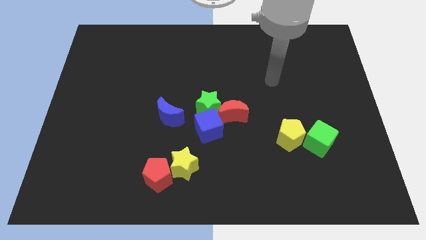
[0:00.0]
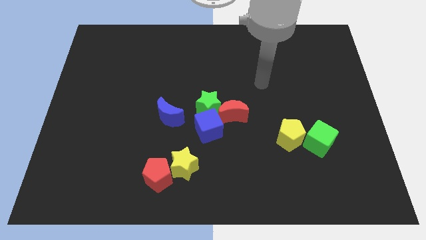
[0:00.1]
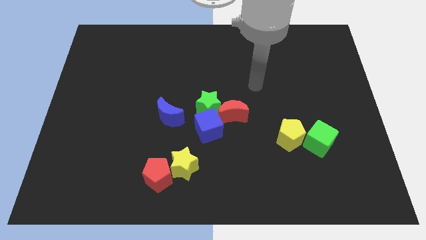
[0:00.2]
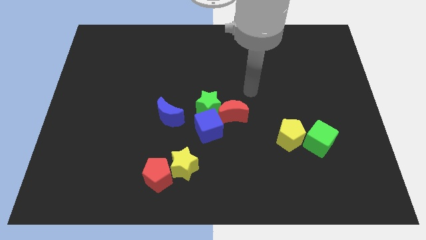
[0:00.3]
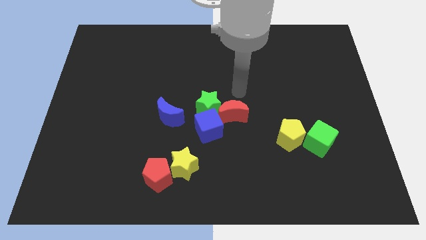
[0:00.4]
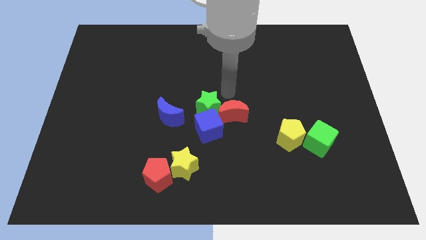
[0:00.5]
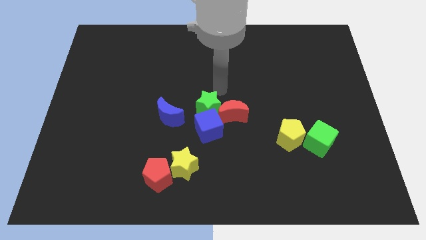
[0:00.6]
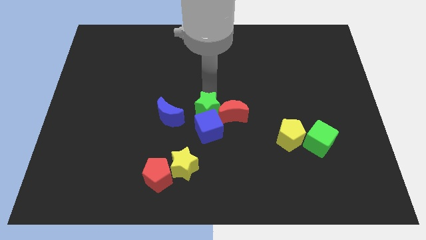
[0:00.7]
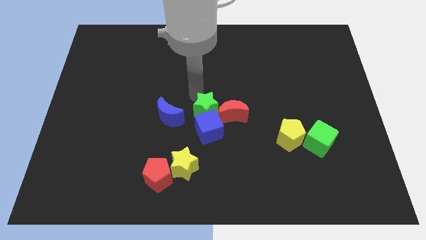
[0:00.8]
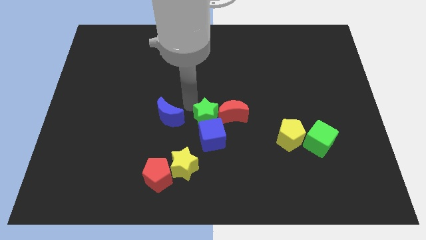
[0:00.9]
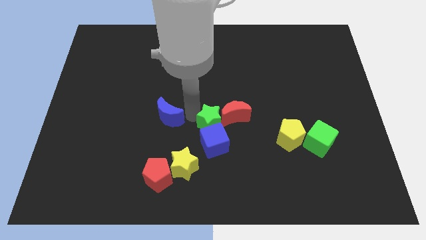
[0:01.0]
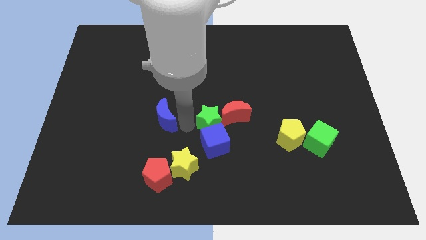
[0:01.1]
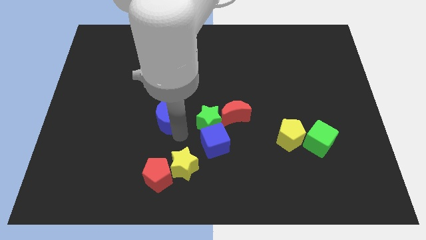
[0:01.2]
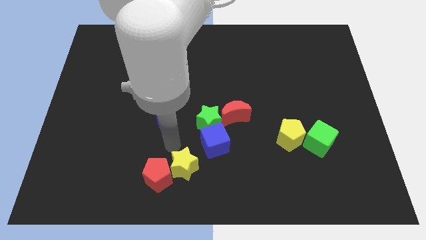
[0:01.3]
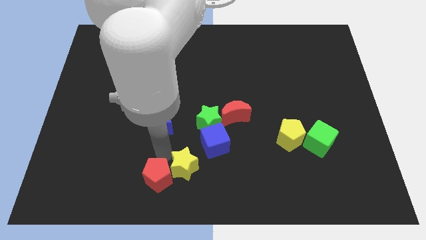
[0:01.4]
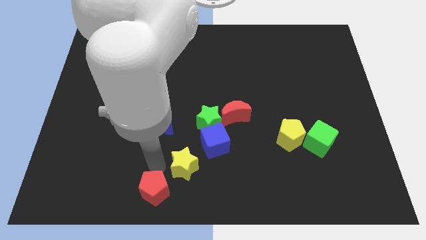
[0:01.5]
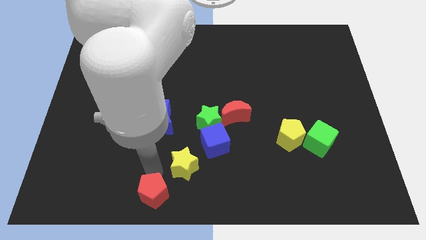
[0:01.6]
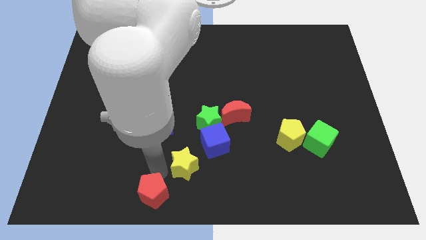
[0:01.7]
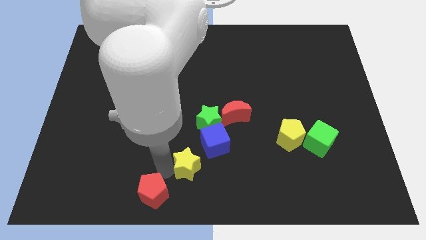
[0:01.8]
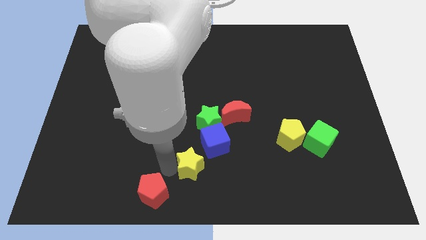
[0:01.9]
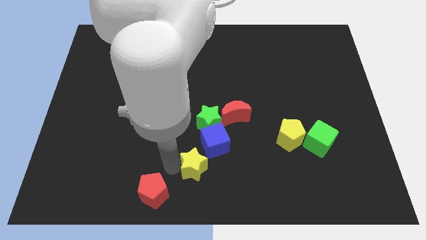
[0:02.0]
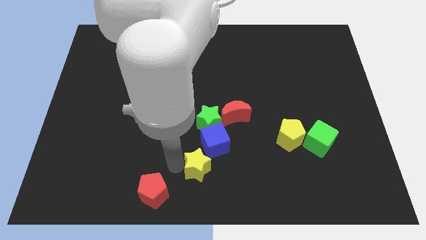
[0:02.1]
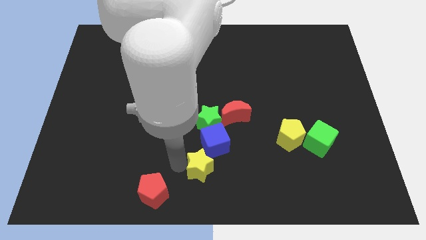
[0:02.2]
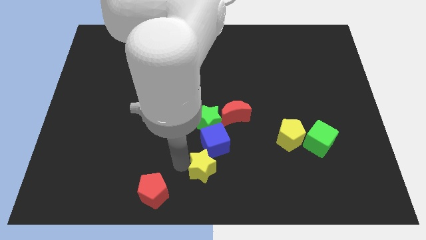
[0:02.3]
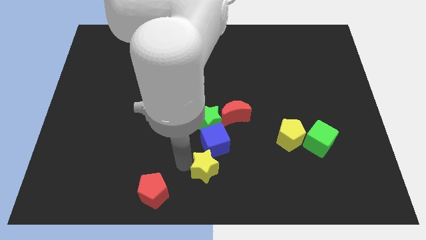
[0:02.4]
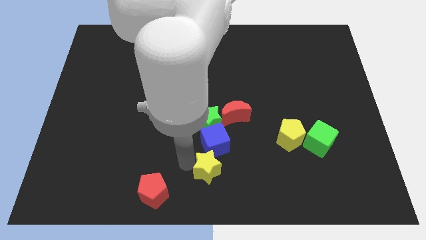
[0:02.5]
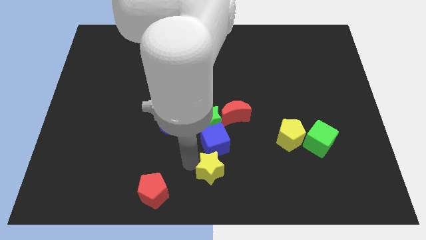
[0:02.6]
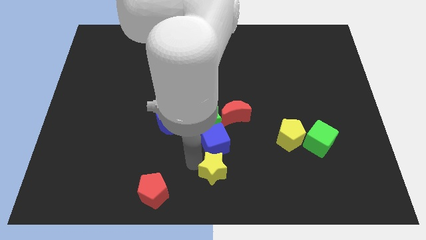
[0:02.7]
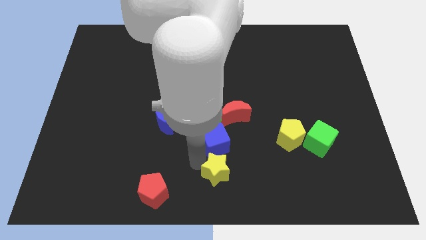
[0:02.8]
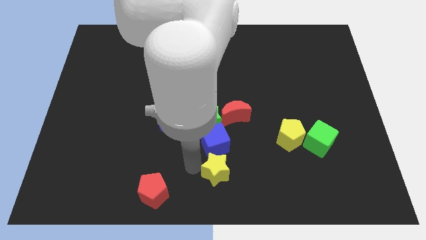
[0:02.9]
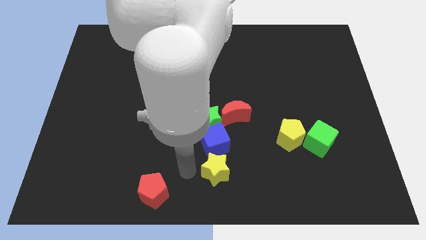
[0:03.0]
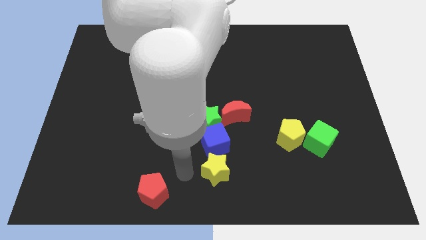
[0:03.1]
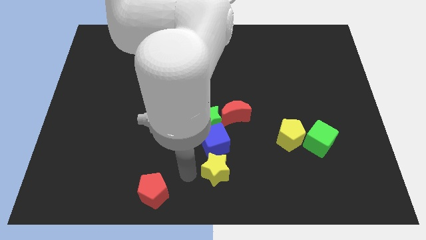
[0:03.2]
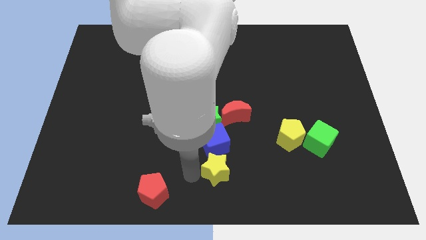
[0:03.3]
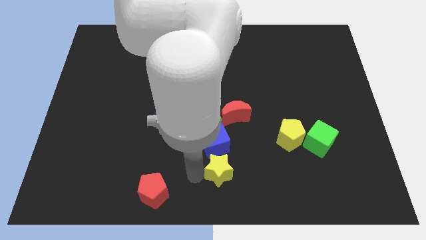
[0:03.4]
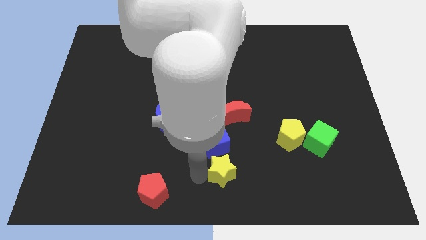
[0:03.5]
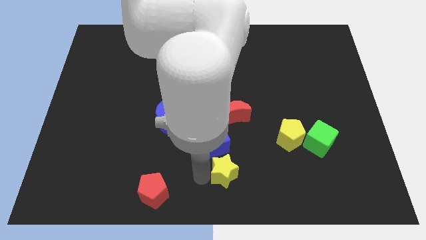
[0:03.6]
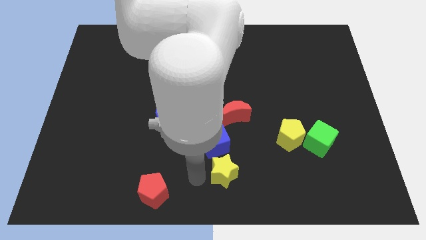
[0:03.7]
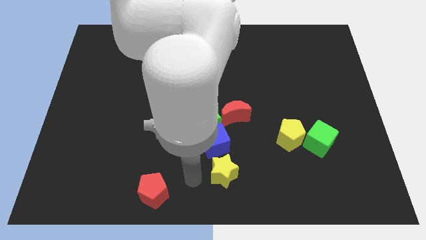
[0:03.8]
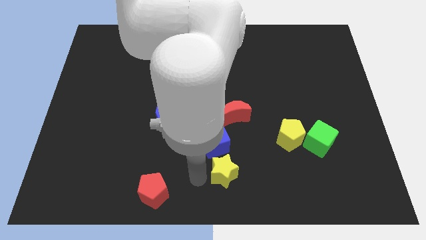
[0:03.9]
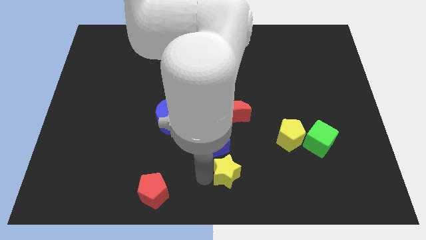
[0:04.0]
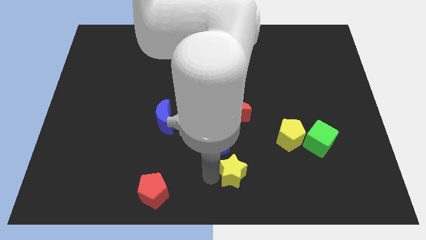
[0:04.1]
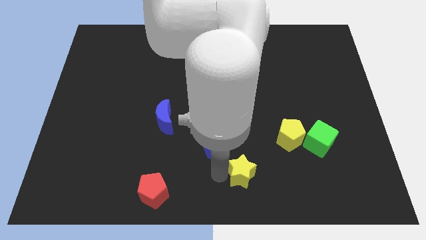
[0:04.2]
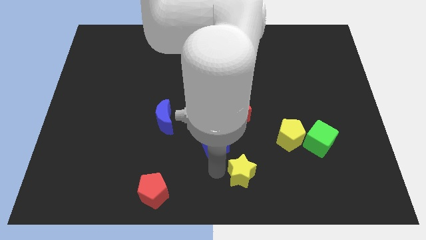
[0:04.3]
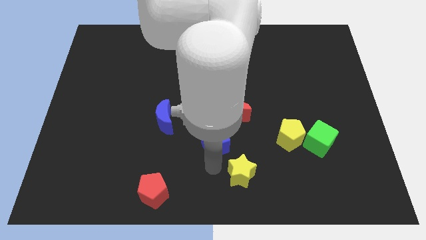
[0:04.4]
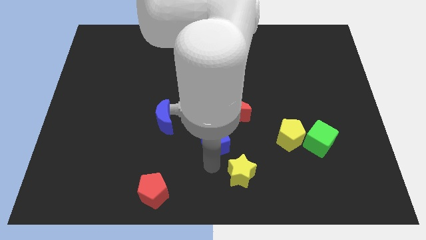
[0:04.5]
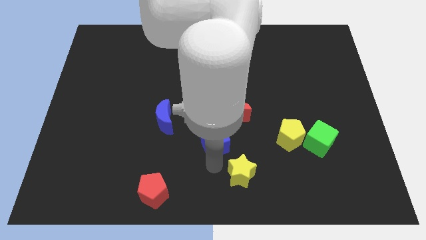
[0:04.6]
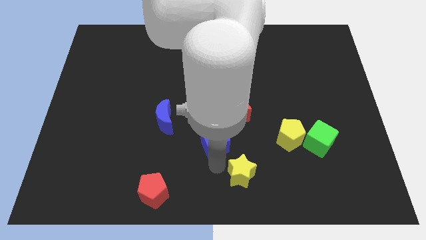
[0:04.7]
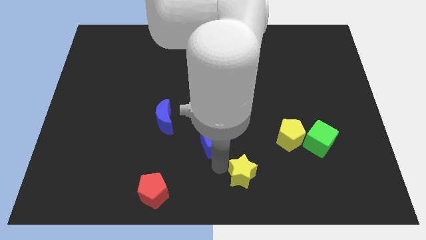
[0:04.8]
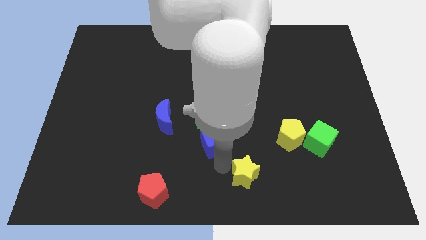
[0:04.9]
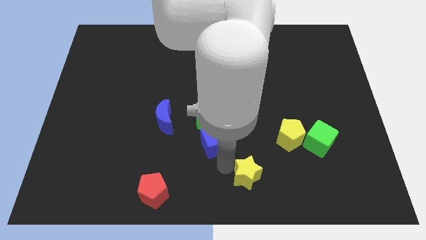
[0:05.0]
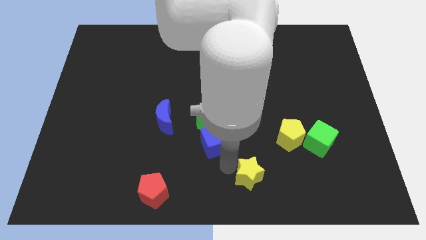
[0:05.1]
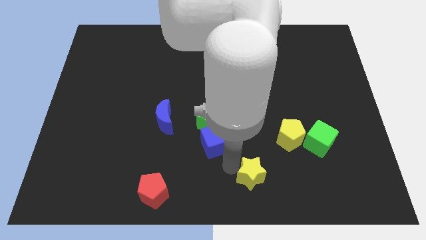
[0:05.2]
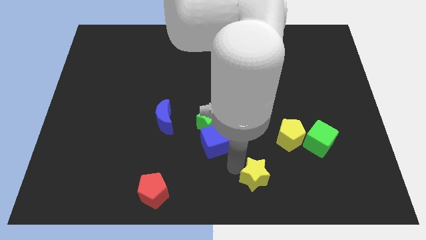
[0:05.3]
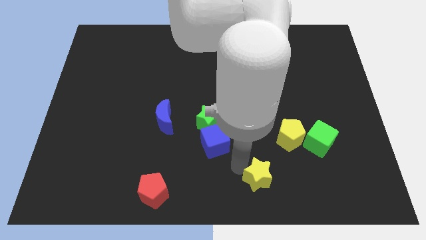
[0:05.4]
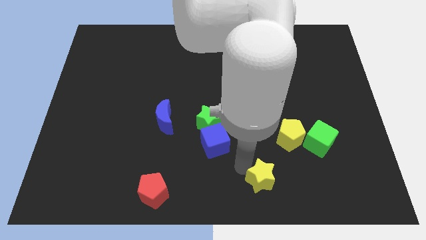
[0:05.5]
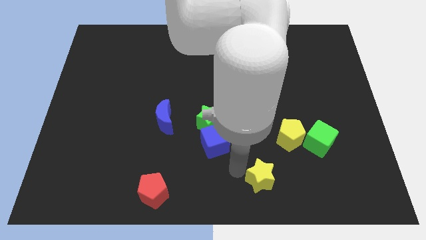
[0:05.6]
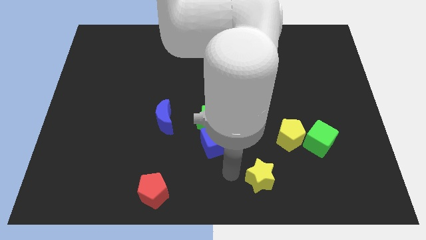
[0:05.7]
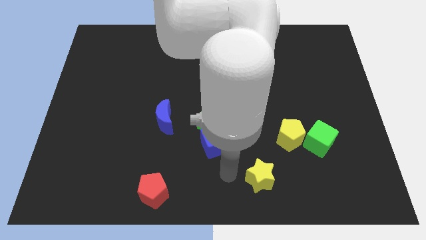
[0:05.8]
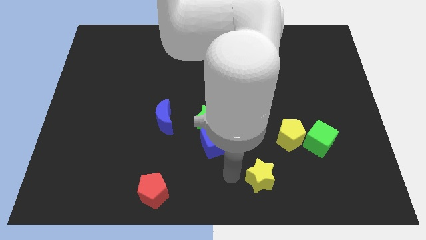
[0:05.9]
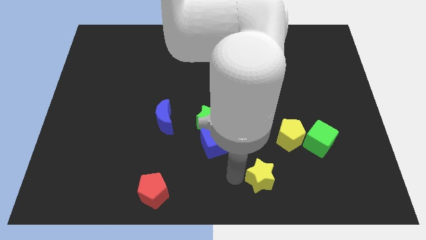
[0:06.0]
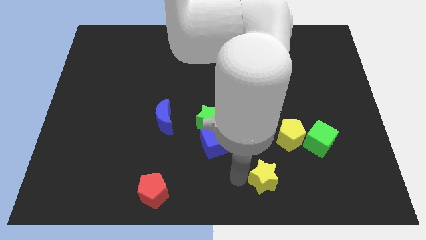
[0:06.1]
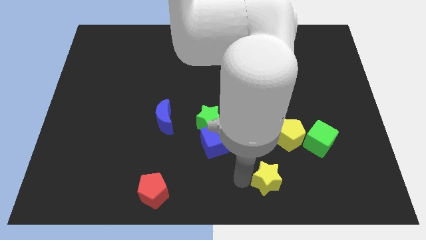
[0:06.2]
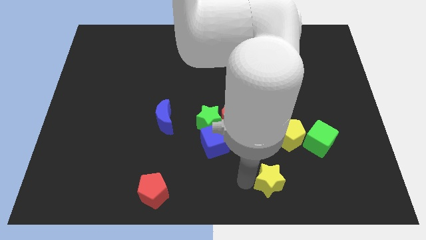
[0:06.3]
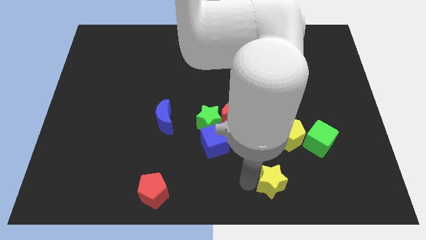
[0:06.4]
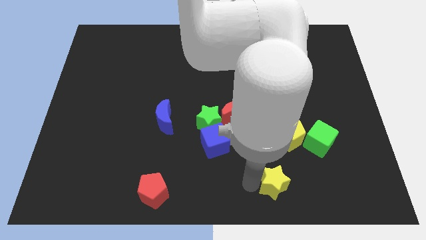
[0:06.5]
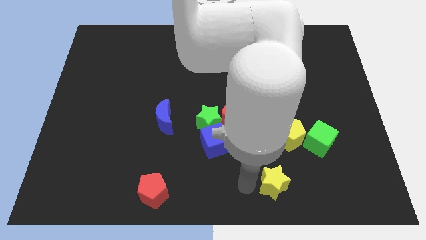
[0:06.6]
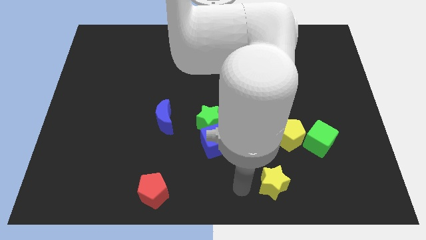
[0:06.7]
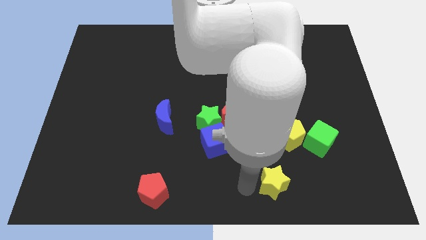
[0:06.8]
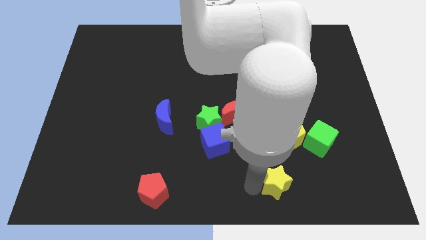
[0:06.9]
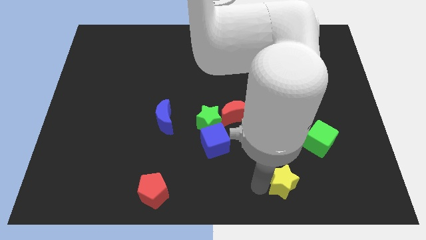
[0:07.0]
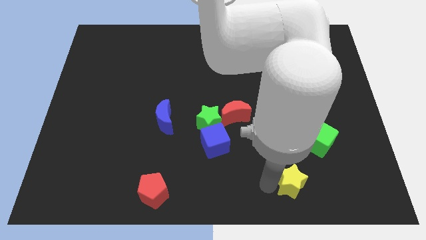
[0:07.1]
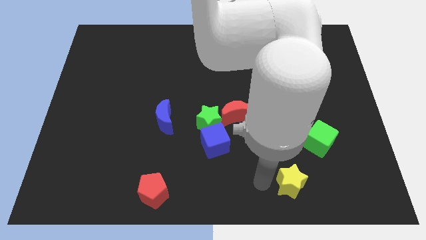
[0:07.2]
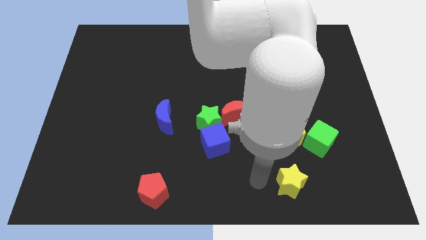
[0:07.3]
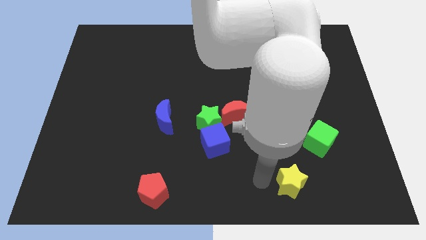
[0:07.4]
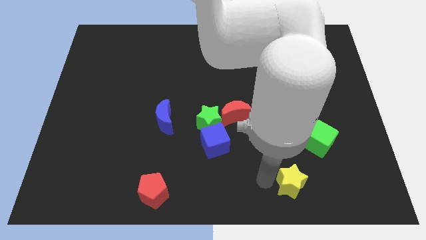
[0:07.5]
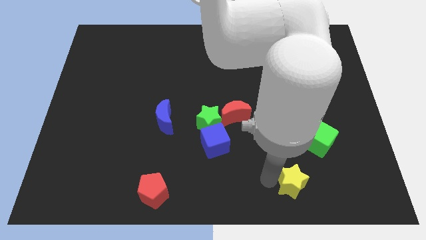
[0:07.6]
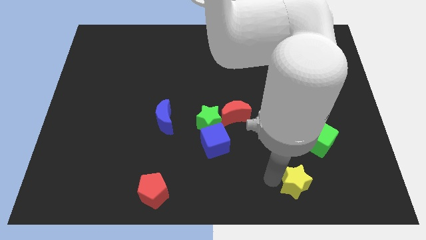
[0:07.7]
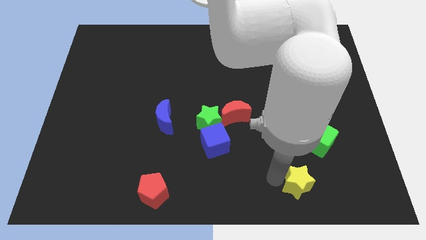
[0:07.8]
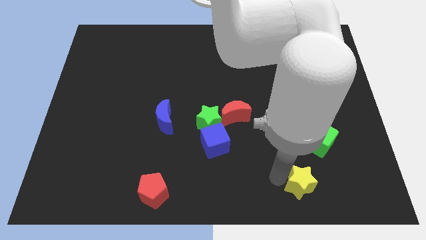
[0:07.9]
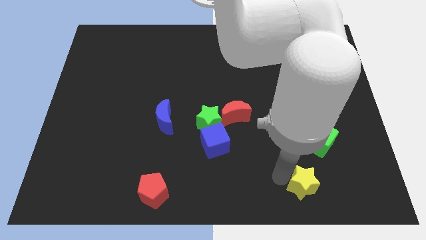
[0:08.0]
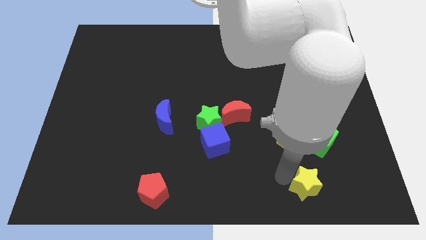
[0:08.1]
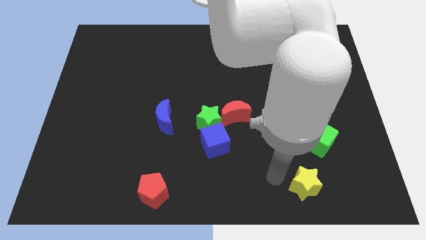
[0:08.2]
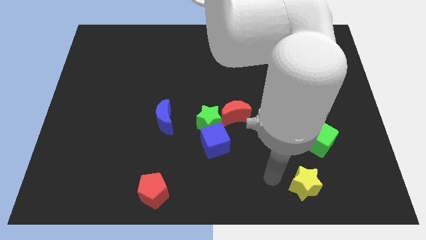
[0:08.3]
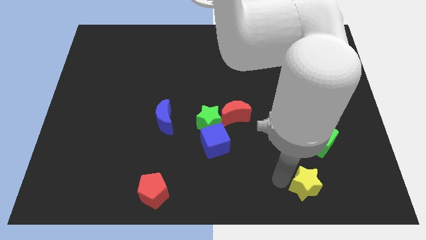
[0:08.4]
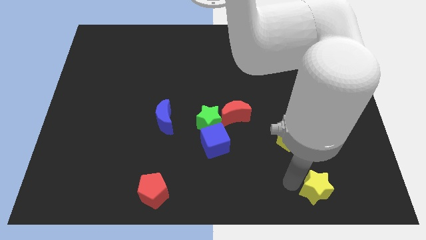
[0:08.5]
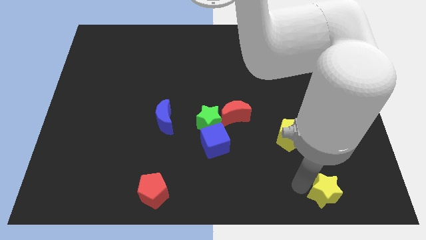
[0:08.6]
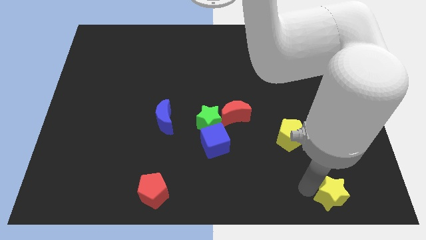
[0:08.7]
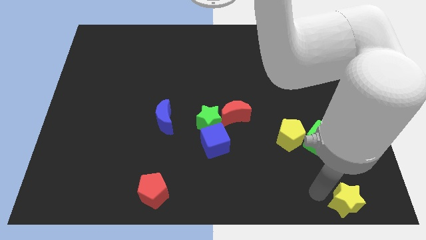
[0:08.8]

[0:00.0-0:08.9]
push the yellow star to the bottom right corner
